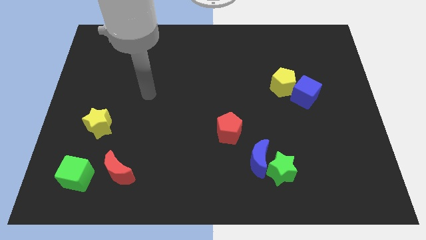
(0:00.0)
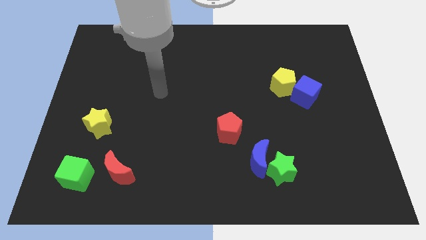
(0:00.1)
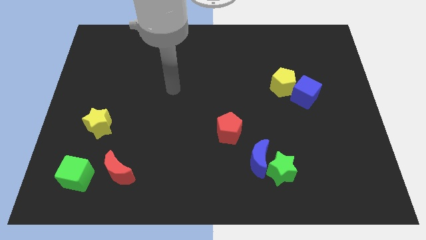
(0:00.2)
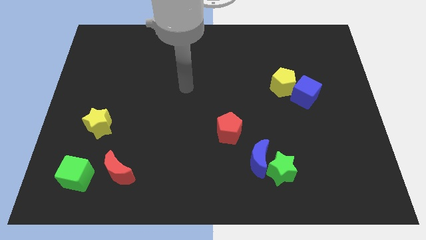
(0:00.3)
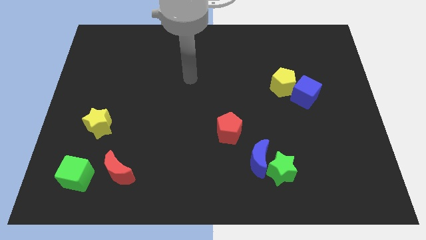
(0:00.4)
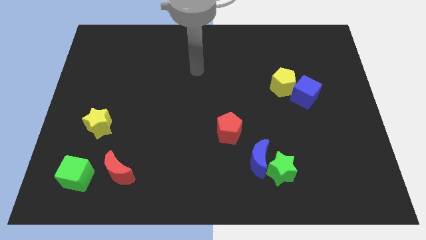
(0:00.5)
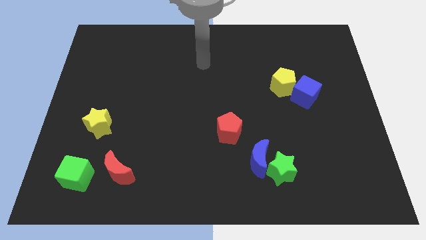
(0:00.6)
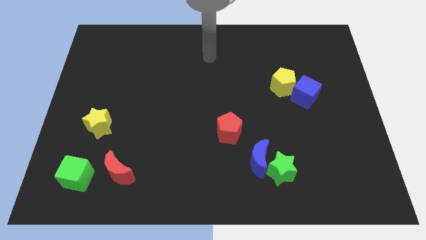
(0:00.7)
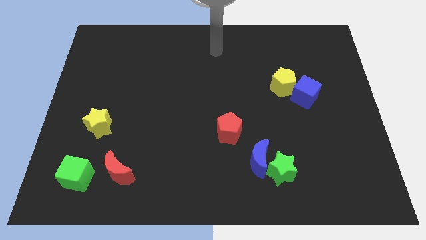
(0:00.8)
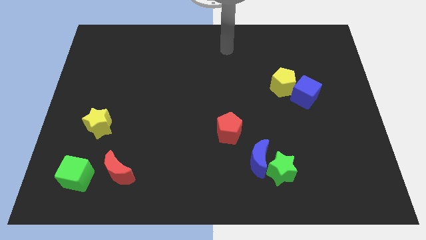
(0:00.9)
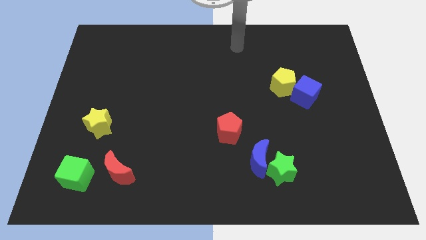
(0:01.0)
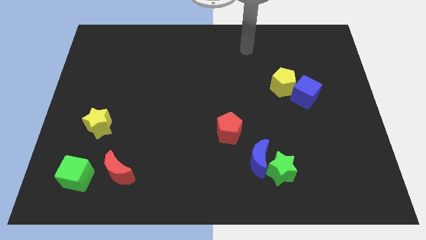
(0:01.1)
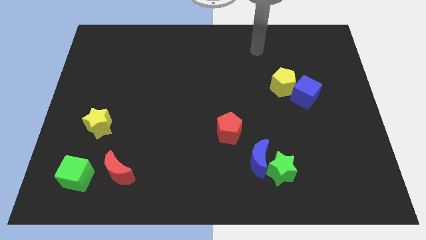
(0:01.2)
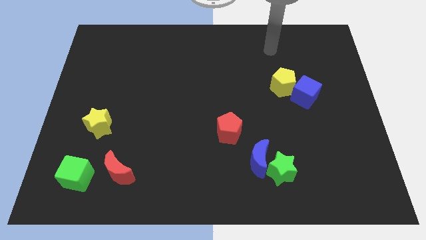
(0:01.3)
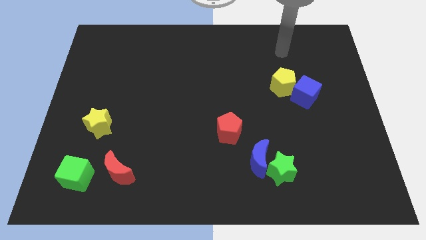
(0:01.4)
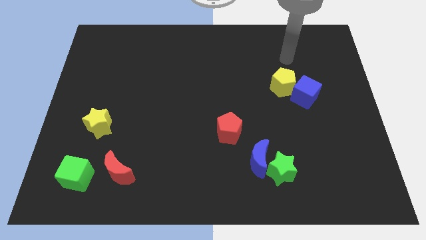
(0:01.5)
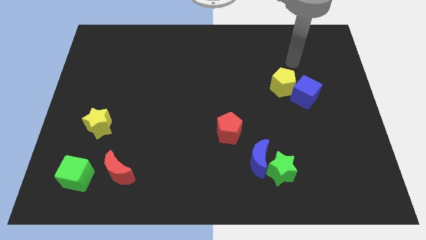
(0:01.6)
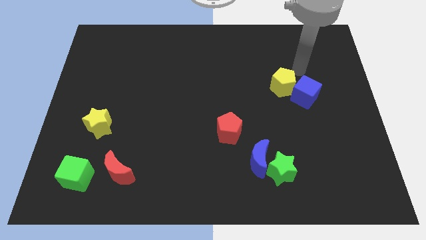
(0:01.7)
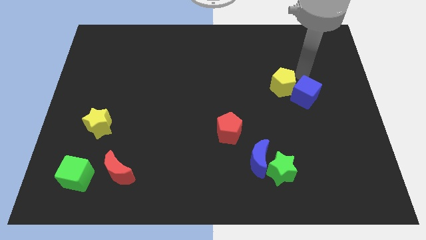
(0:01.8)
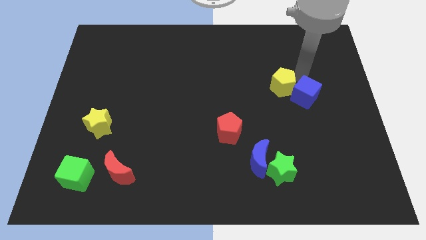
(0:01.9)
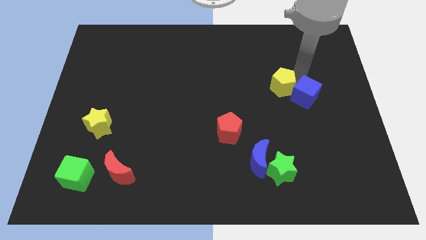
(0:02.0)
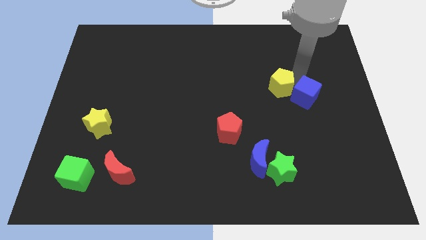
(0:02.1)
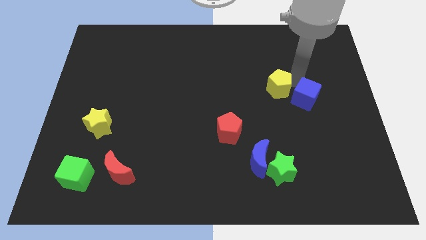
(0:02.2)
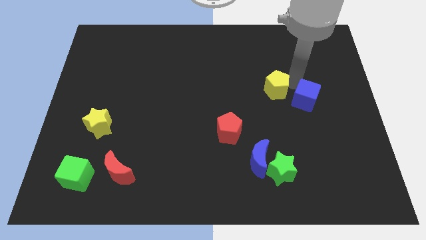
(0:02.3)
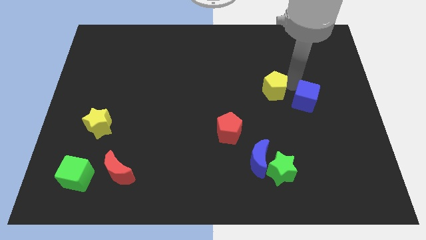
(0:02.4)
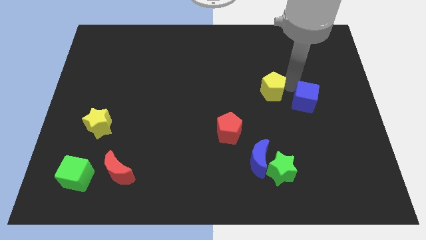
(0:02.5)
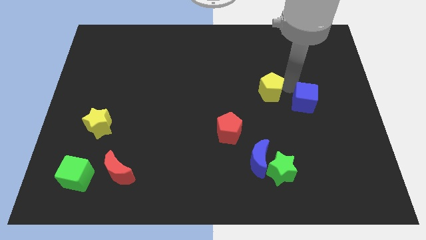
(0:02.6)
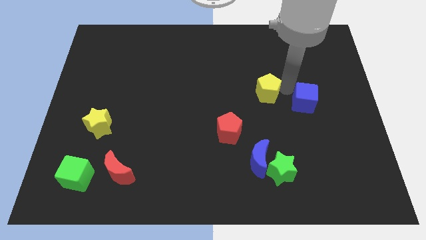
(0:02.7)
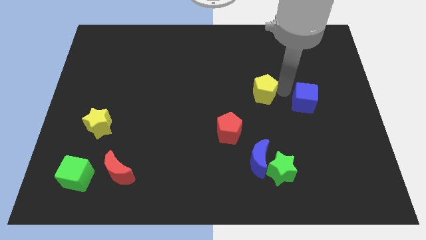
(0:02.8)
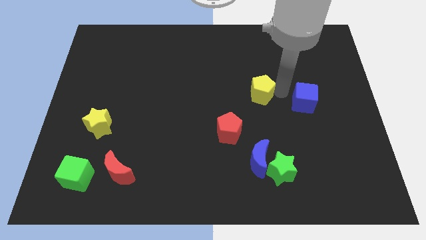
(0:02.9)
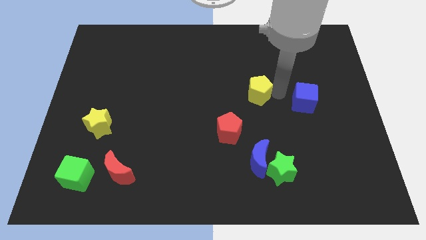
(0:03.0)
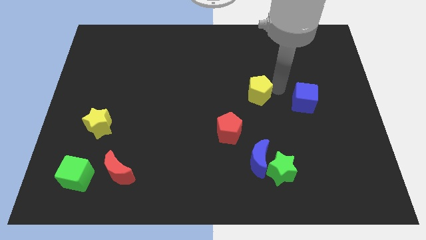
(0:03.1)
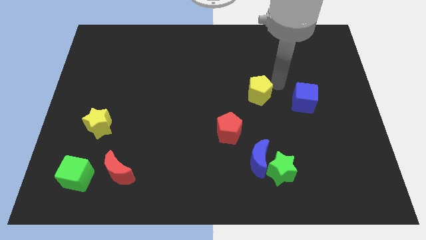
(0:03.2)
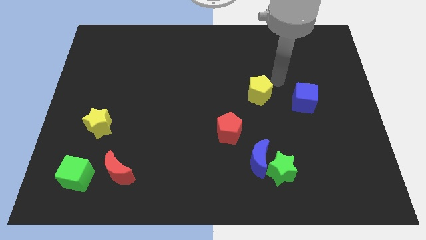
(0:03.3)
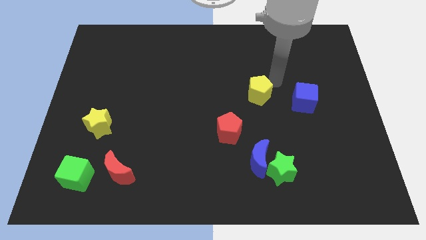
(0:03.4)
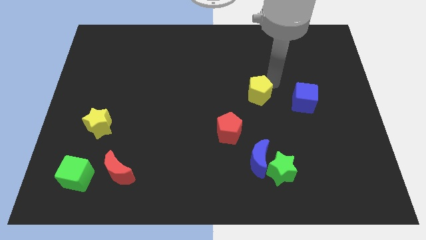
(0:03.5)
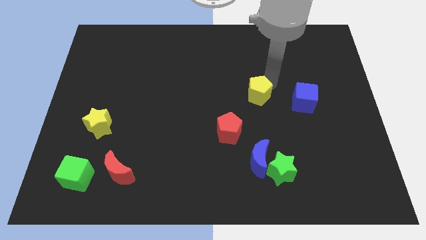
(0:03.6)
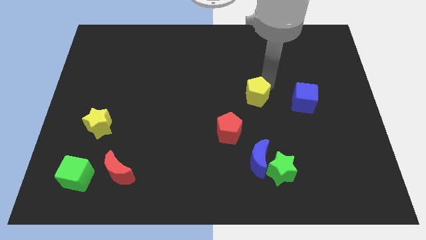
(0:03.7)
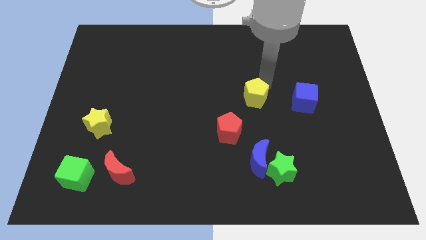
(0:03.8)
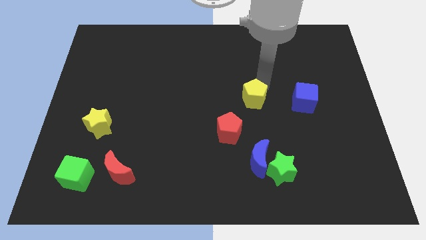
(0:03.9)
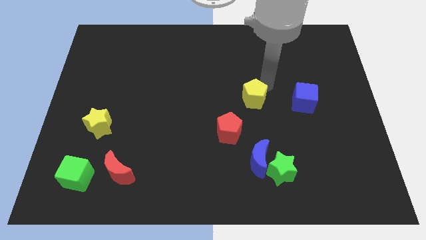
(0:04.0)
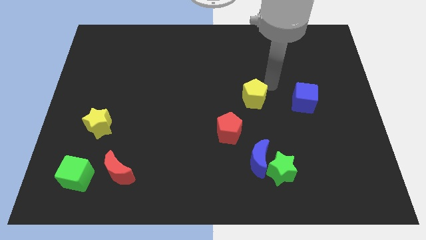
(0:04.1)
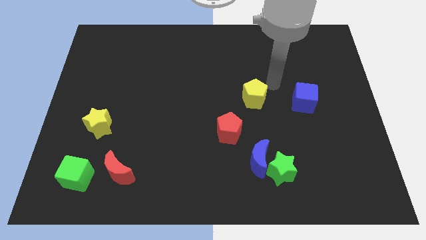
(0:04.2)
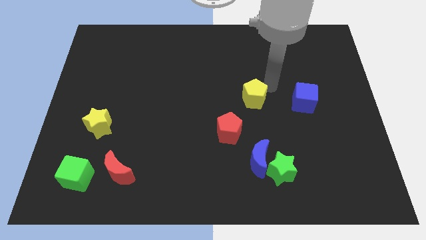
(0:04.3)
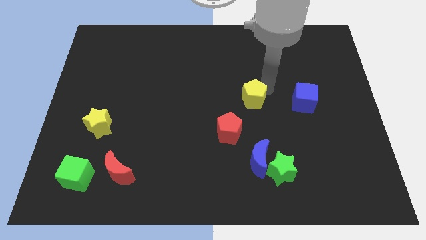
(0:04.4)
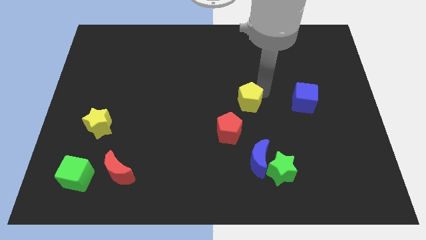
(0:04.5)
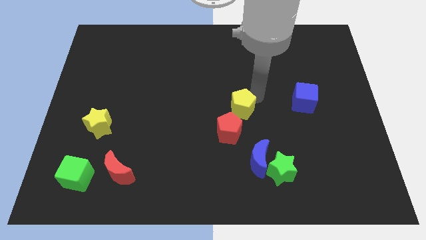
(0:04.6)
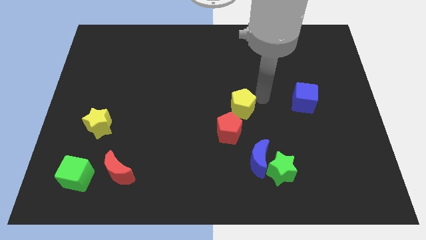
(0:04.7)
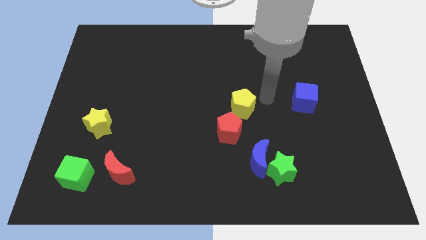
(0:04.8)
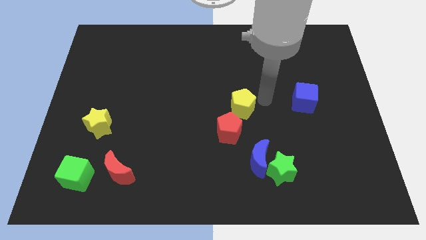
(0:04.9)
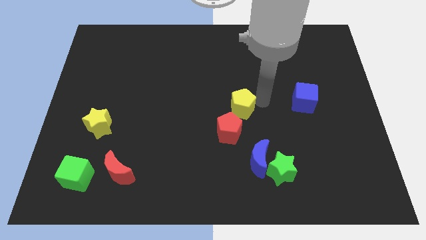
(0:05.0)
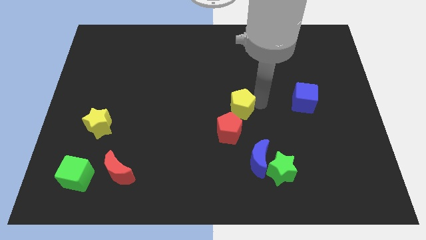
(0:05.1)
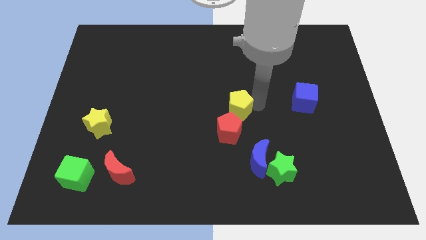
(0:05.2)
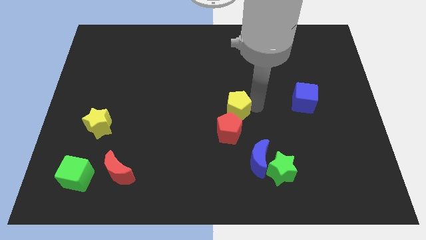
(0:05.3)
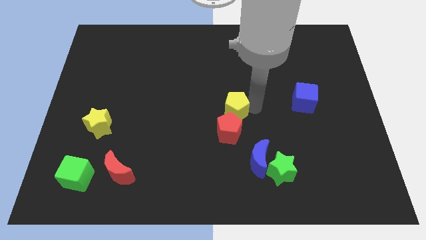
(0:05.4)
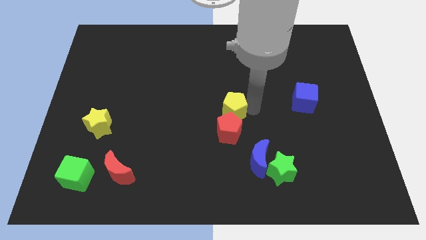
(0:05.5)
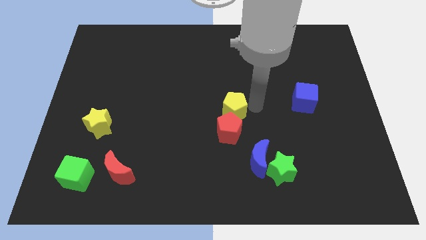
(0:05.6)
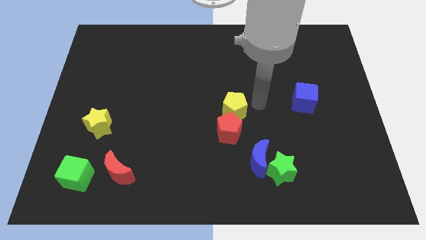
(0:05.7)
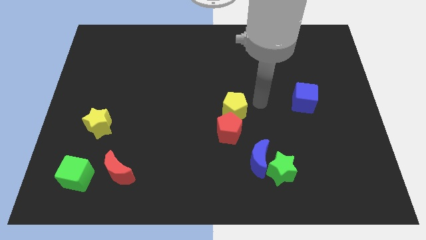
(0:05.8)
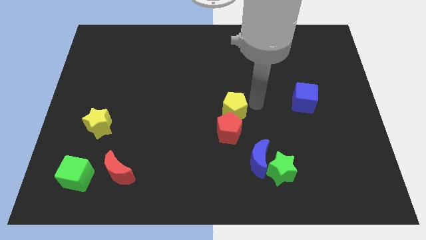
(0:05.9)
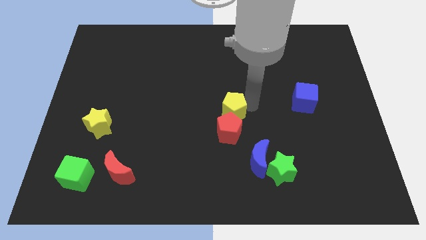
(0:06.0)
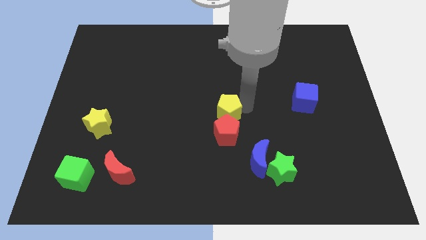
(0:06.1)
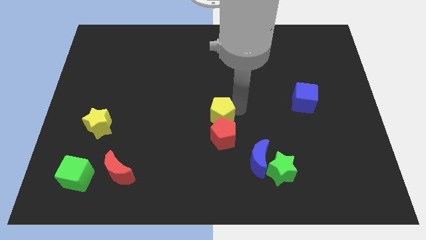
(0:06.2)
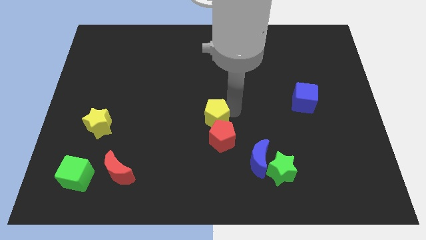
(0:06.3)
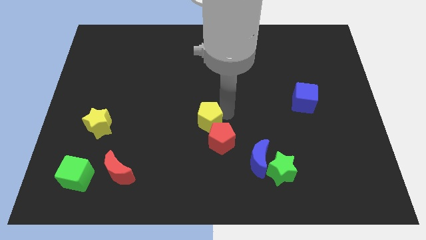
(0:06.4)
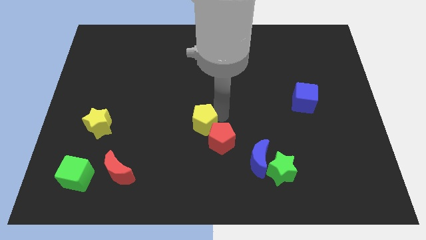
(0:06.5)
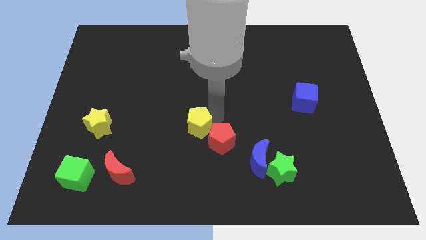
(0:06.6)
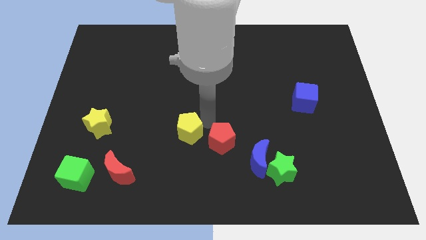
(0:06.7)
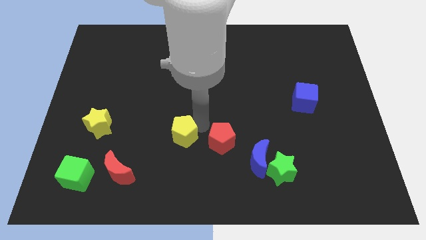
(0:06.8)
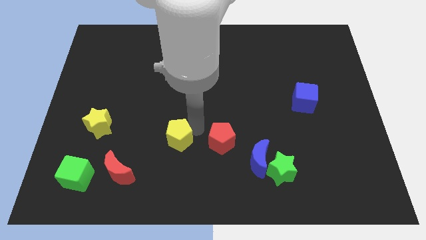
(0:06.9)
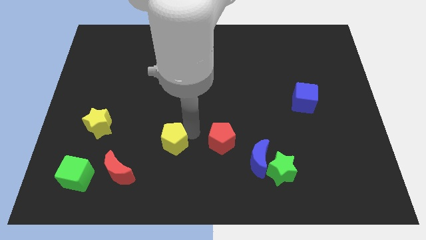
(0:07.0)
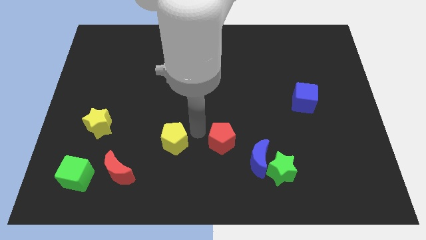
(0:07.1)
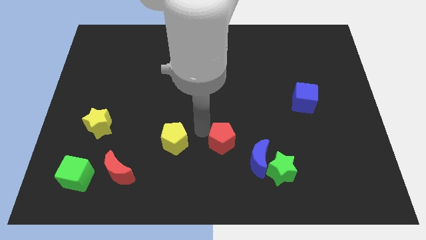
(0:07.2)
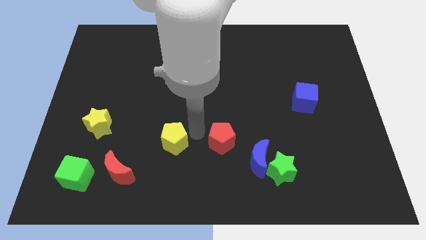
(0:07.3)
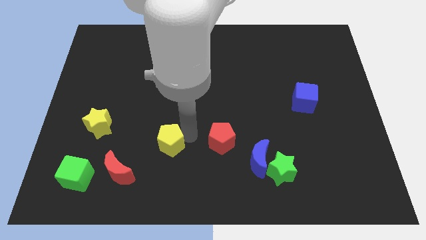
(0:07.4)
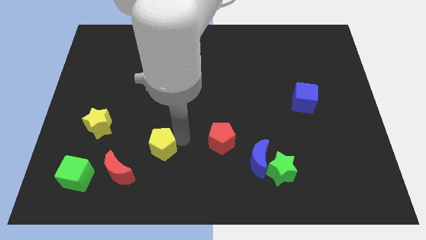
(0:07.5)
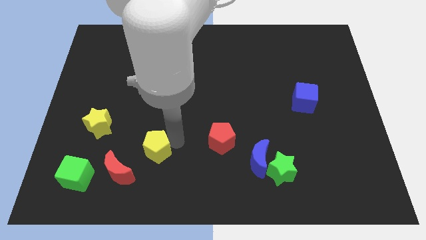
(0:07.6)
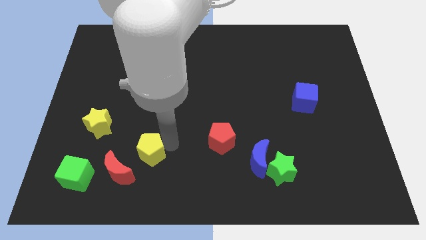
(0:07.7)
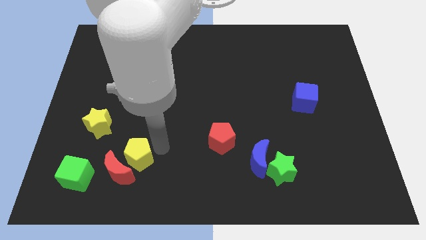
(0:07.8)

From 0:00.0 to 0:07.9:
slide the yellow pentagon towards the red moon
